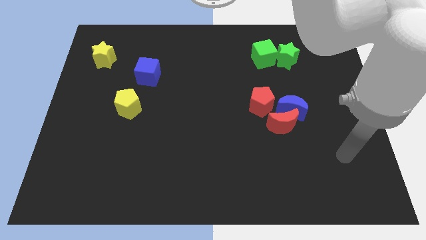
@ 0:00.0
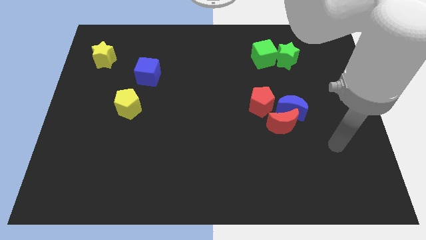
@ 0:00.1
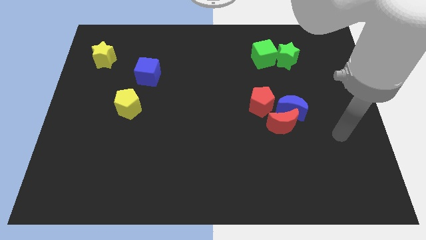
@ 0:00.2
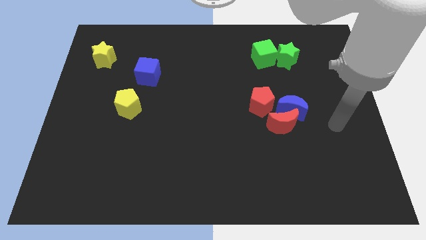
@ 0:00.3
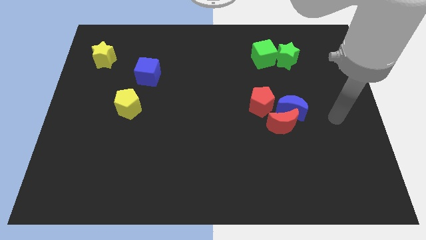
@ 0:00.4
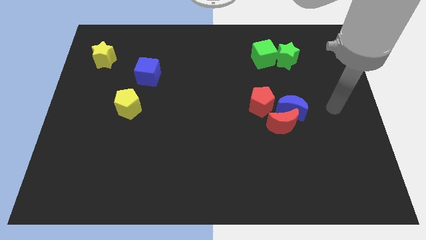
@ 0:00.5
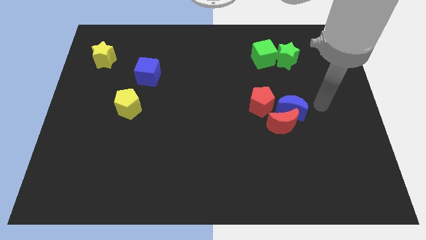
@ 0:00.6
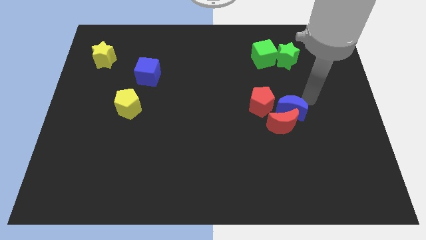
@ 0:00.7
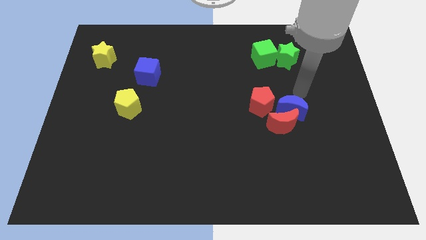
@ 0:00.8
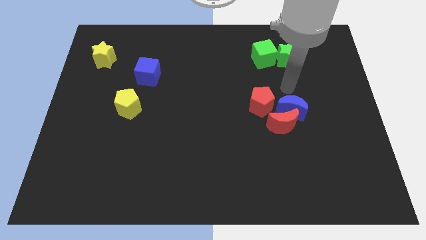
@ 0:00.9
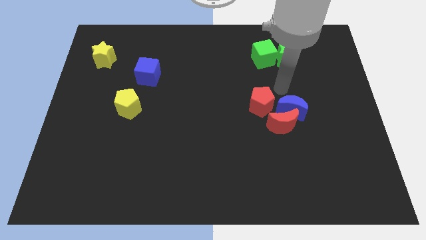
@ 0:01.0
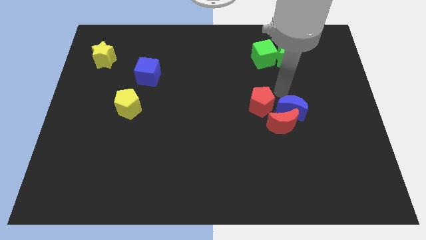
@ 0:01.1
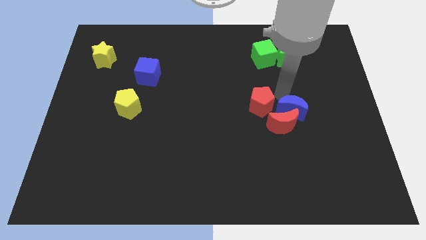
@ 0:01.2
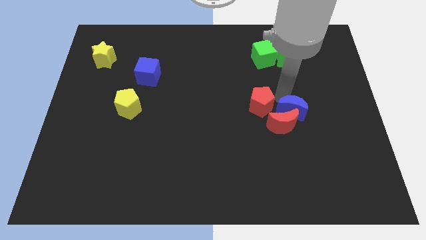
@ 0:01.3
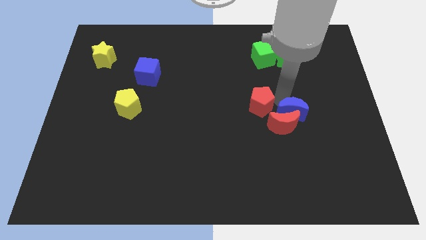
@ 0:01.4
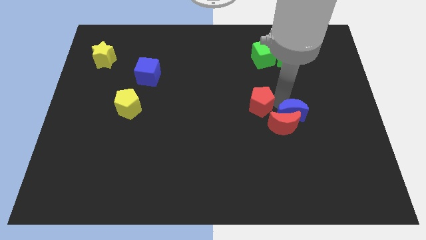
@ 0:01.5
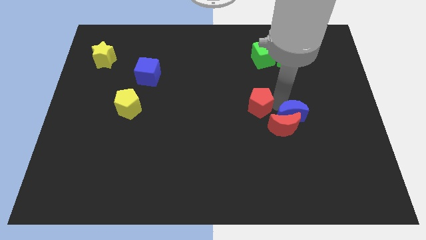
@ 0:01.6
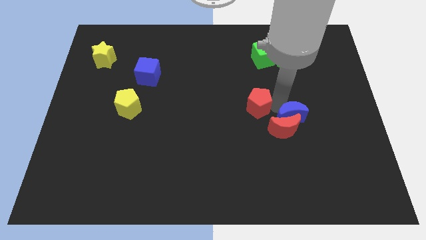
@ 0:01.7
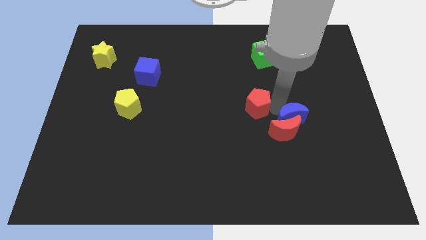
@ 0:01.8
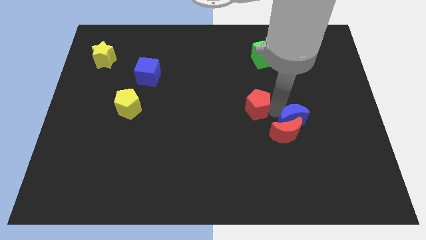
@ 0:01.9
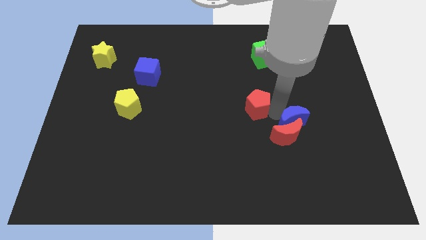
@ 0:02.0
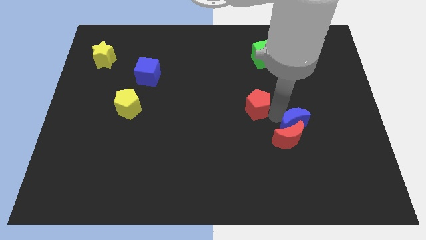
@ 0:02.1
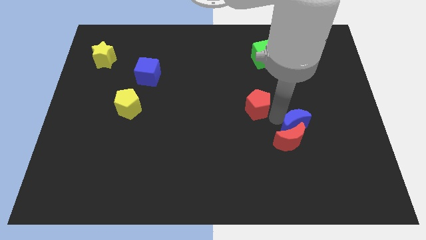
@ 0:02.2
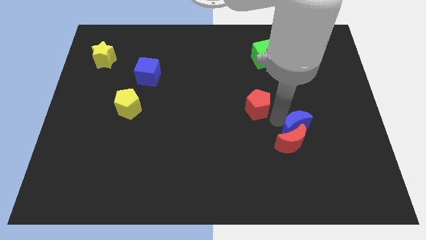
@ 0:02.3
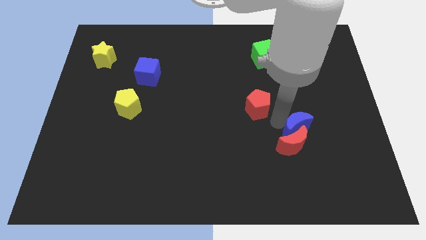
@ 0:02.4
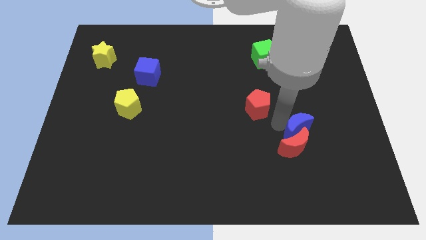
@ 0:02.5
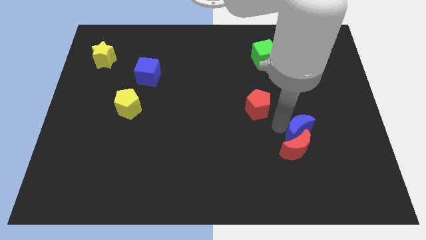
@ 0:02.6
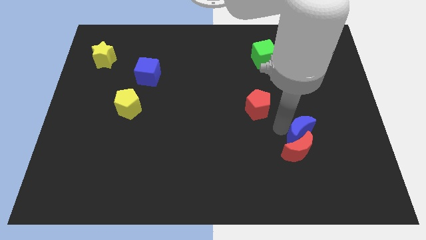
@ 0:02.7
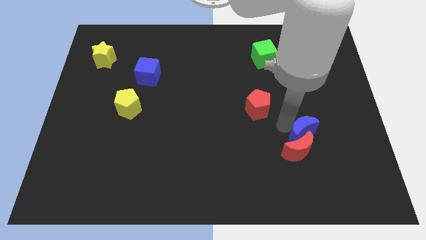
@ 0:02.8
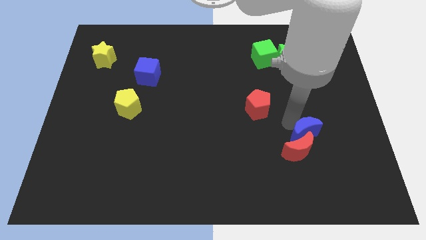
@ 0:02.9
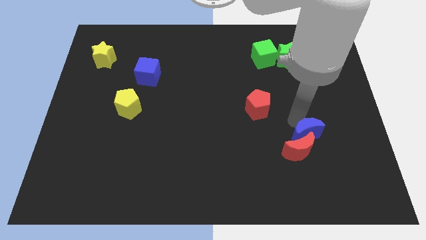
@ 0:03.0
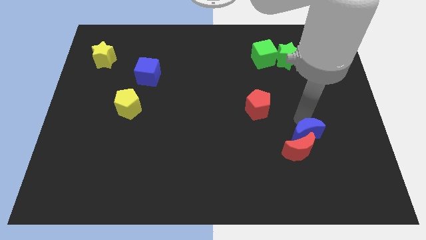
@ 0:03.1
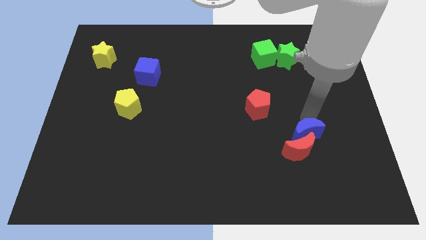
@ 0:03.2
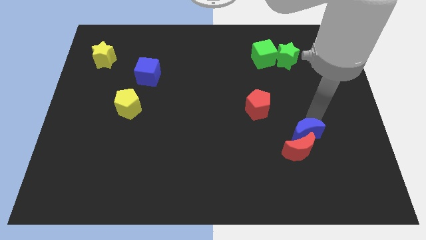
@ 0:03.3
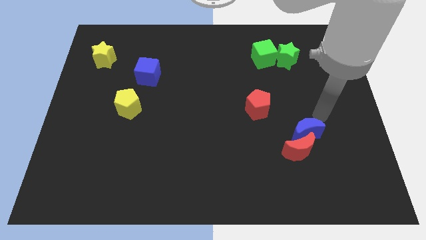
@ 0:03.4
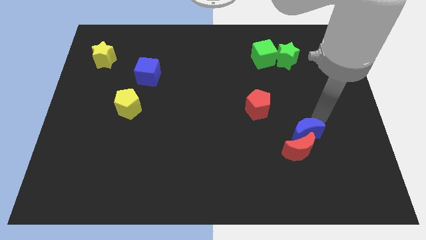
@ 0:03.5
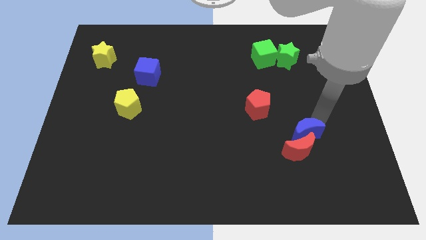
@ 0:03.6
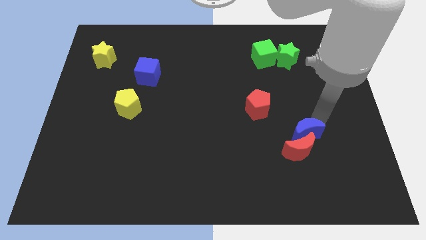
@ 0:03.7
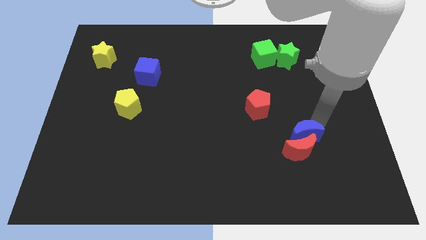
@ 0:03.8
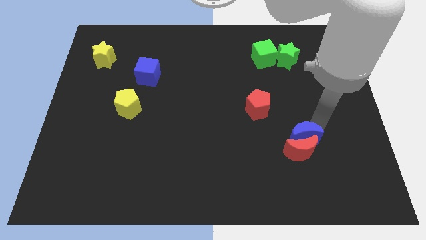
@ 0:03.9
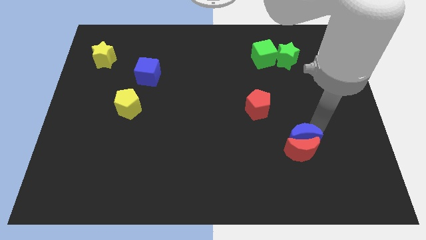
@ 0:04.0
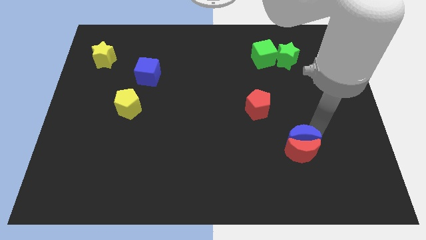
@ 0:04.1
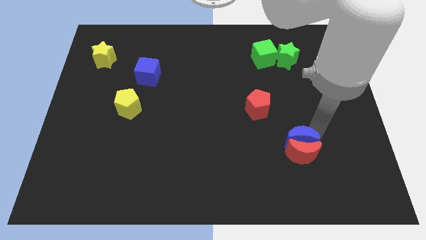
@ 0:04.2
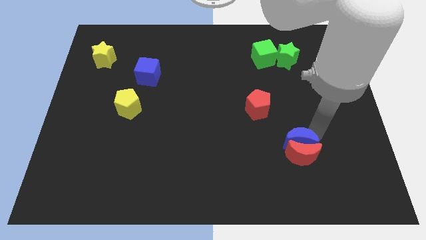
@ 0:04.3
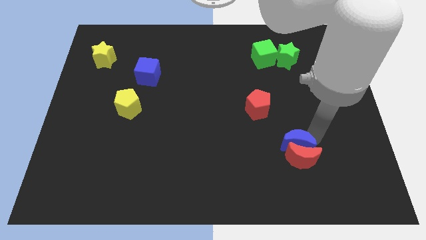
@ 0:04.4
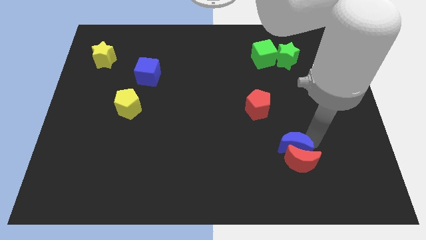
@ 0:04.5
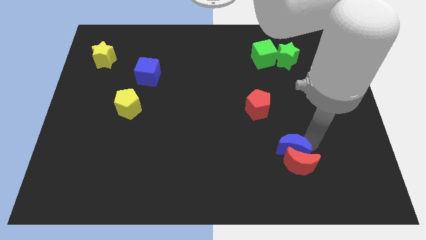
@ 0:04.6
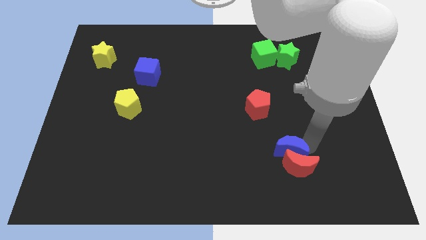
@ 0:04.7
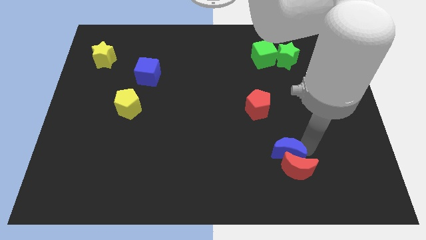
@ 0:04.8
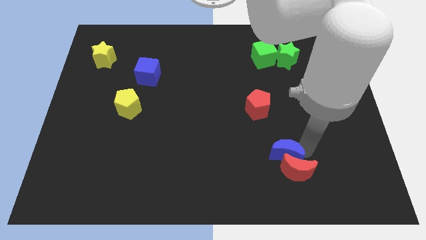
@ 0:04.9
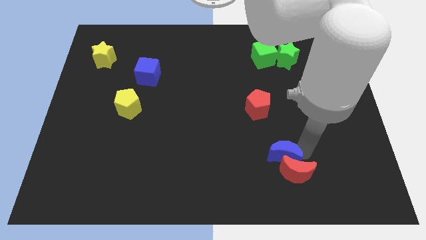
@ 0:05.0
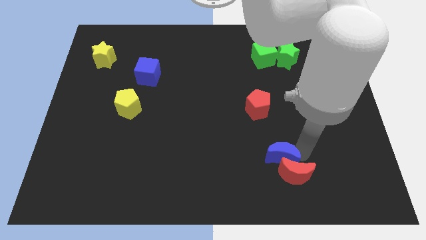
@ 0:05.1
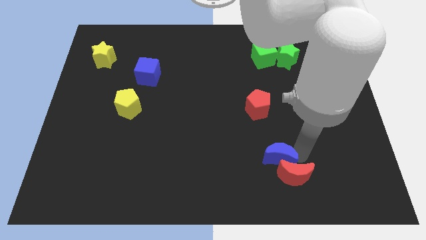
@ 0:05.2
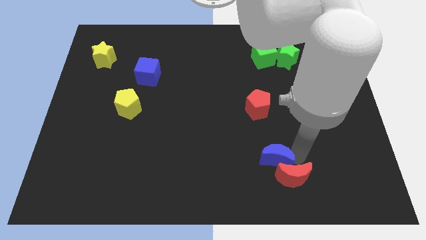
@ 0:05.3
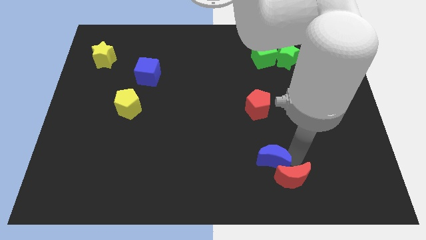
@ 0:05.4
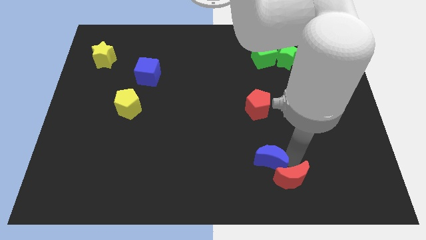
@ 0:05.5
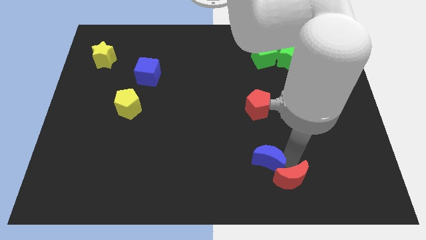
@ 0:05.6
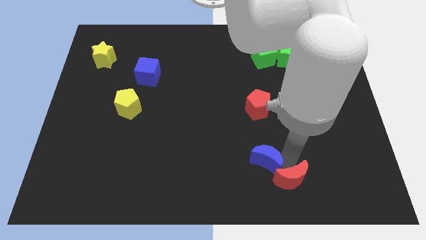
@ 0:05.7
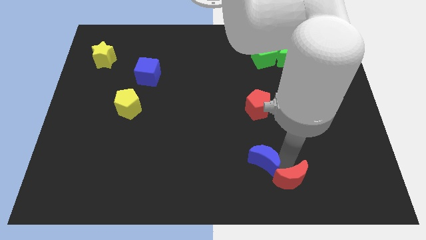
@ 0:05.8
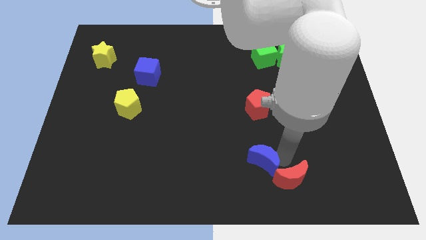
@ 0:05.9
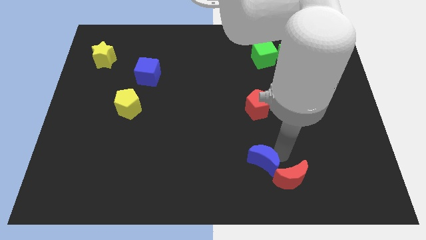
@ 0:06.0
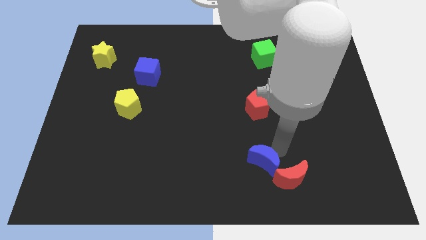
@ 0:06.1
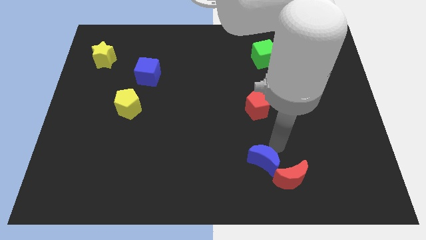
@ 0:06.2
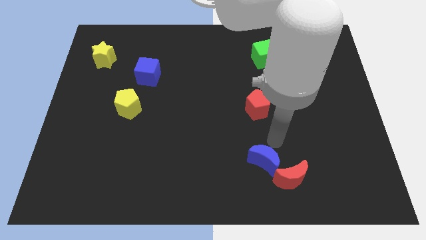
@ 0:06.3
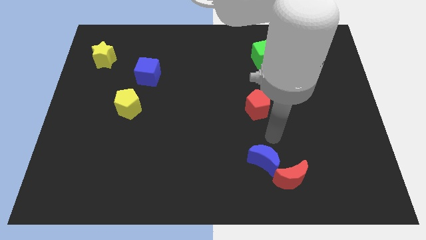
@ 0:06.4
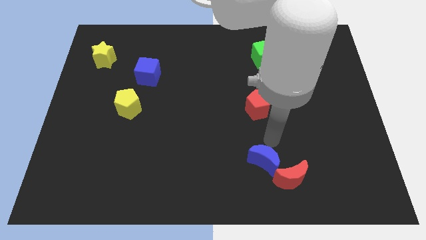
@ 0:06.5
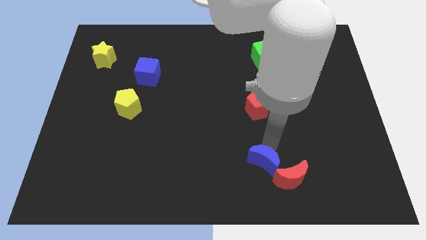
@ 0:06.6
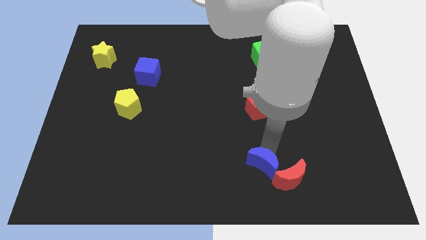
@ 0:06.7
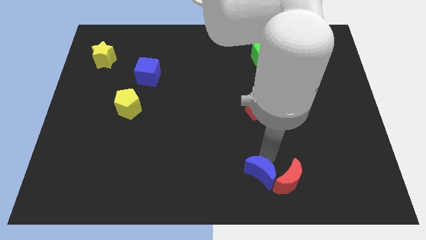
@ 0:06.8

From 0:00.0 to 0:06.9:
put the blue moon to the bottom
